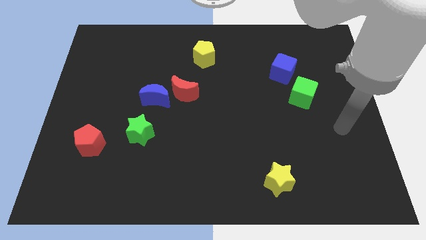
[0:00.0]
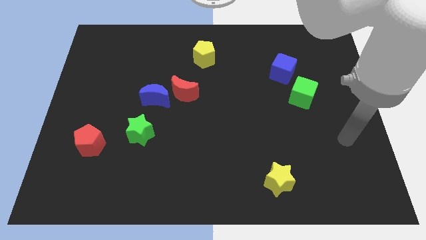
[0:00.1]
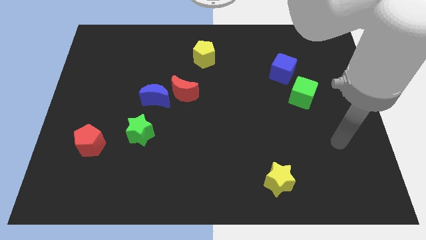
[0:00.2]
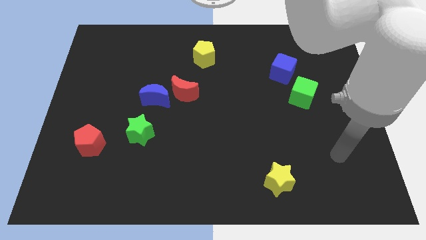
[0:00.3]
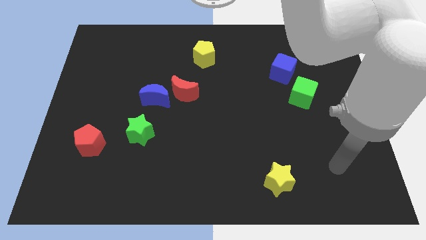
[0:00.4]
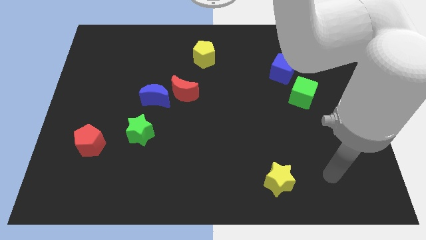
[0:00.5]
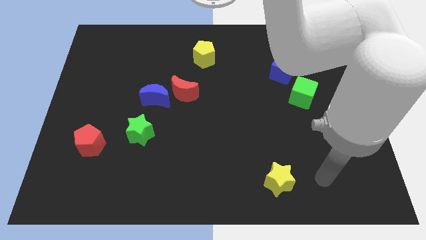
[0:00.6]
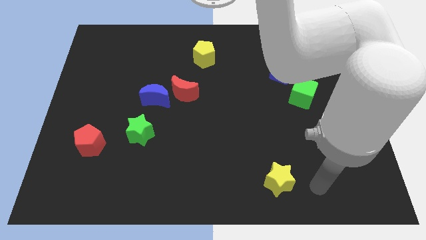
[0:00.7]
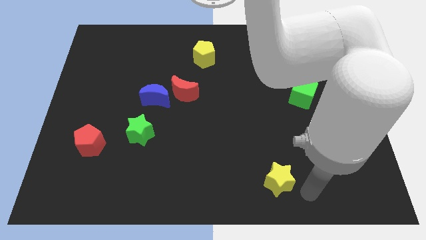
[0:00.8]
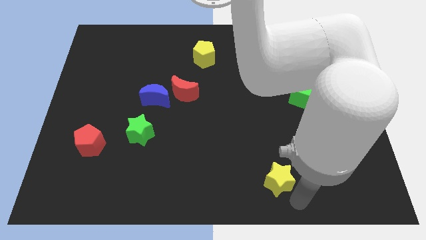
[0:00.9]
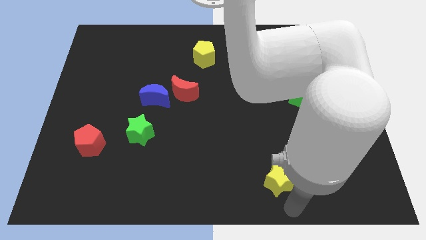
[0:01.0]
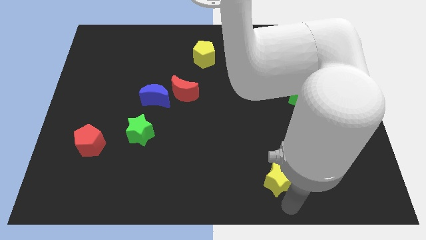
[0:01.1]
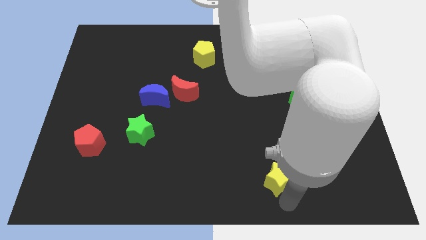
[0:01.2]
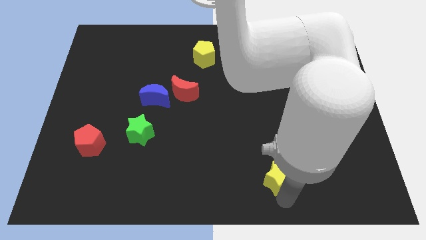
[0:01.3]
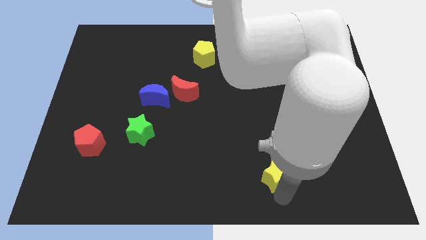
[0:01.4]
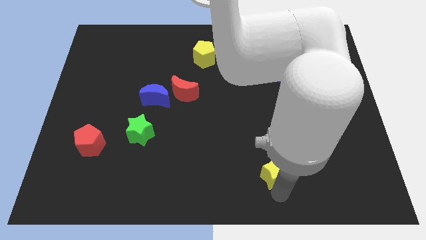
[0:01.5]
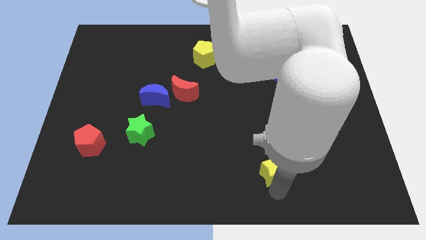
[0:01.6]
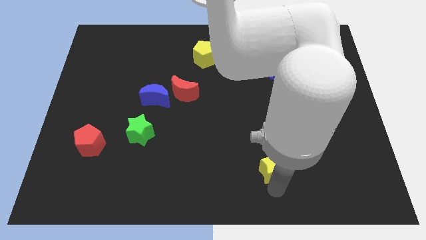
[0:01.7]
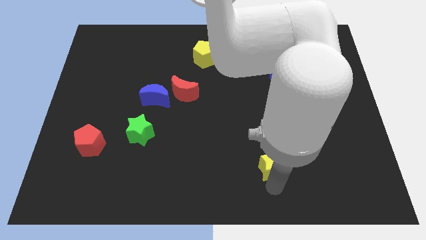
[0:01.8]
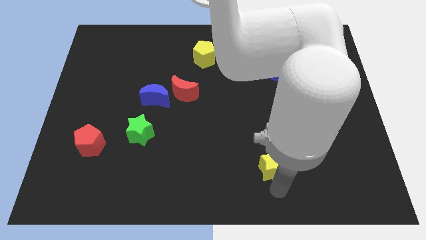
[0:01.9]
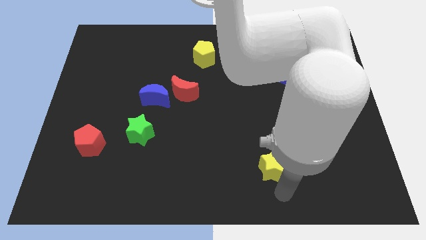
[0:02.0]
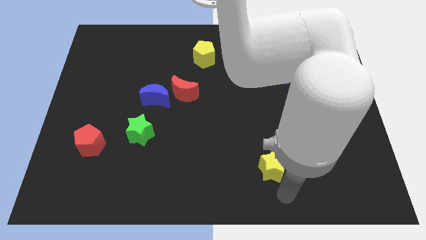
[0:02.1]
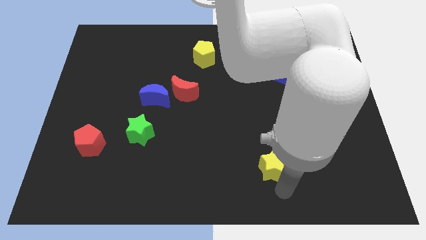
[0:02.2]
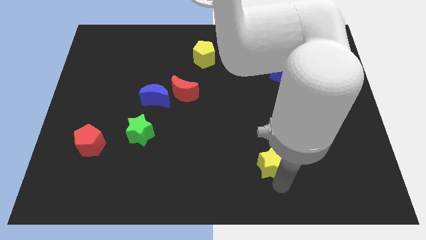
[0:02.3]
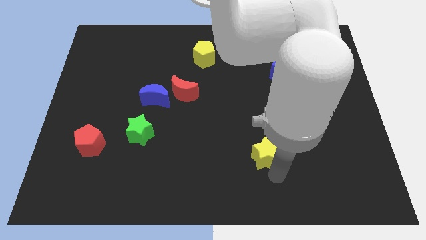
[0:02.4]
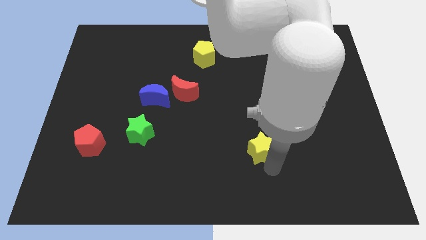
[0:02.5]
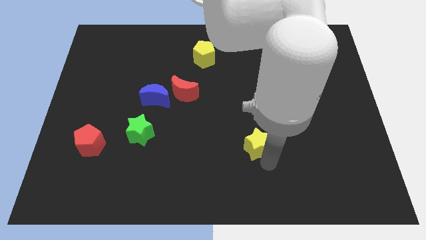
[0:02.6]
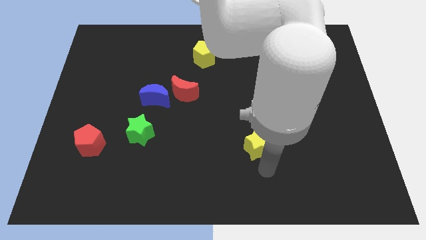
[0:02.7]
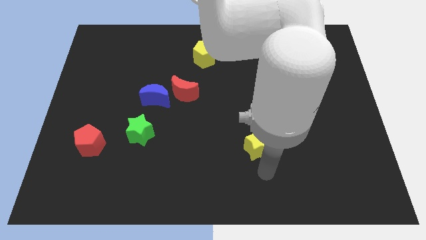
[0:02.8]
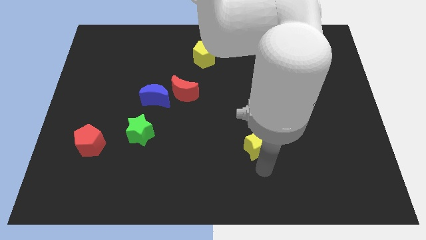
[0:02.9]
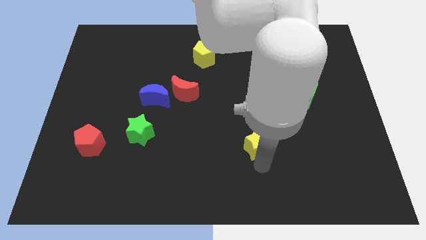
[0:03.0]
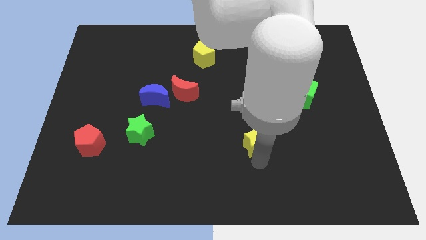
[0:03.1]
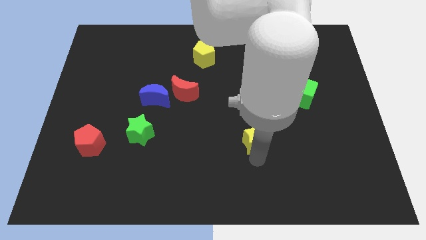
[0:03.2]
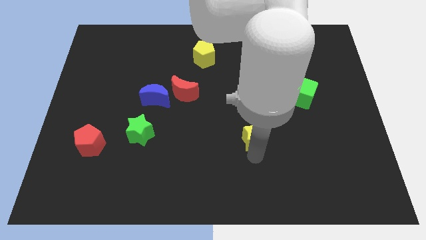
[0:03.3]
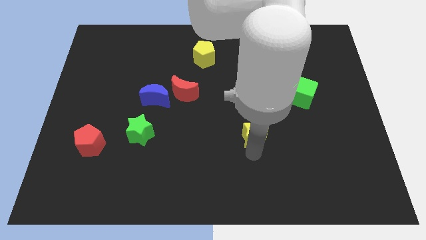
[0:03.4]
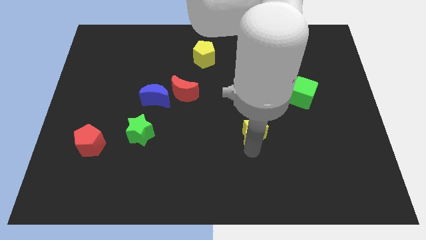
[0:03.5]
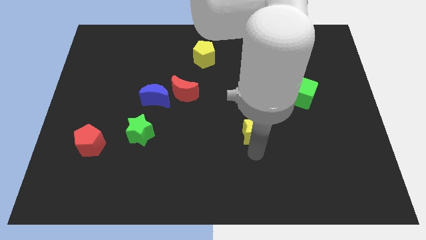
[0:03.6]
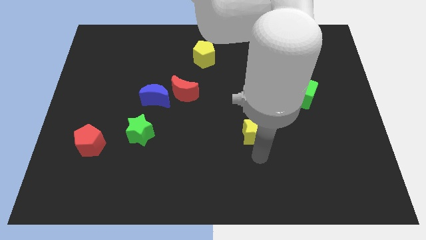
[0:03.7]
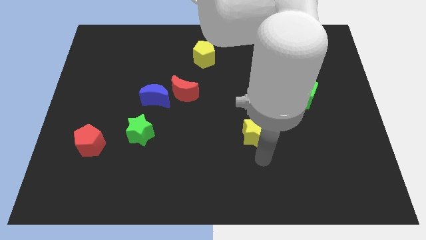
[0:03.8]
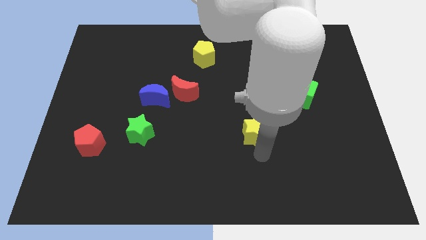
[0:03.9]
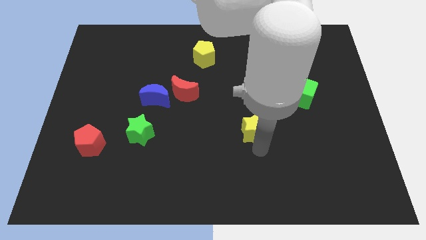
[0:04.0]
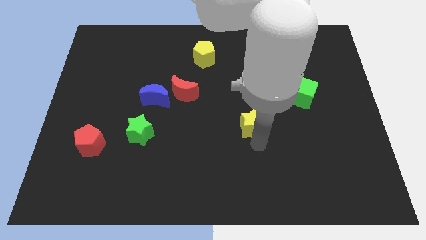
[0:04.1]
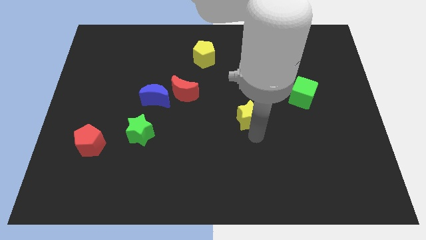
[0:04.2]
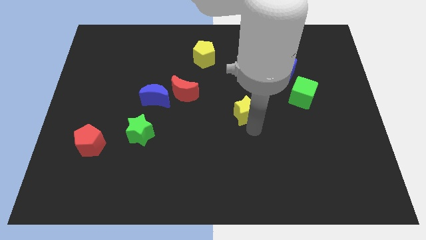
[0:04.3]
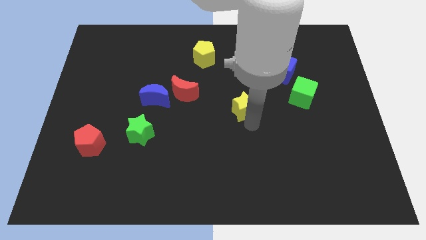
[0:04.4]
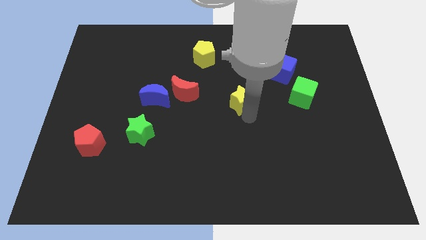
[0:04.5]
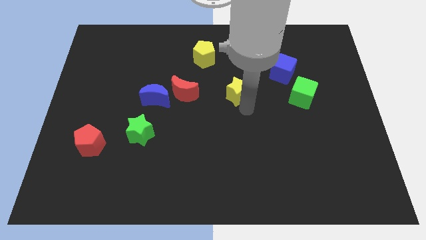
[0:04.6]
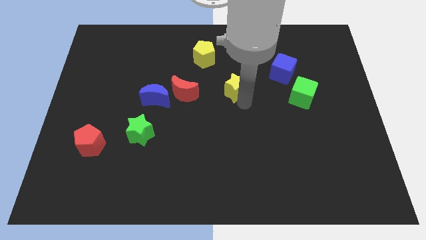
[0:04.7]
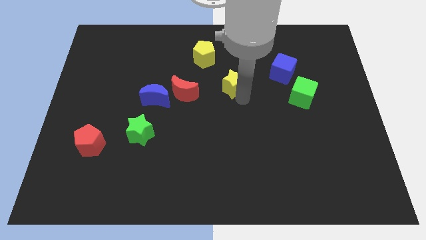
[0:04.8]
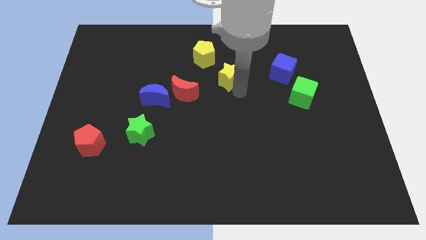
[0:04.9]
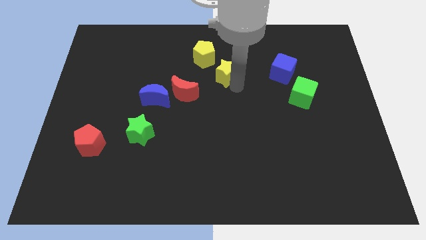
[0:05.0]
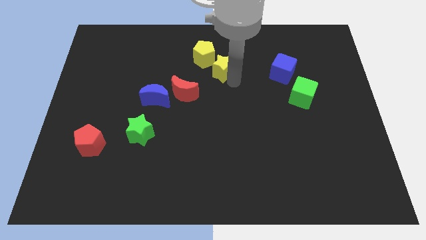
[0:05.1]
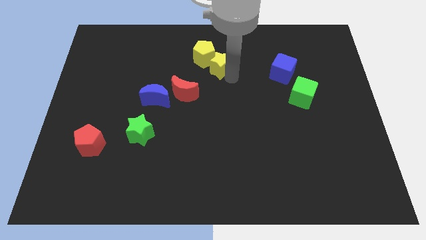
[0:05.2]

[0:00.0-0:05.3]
push the yellow star to the yellow pentagon

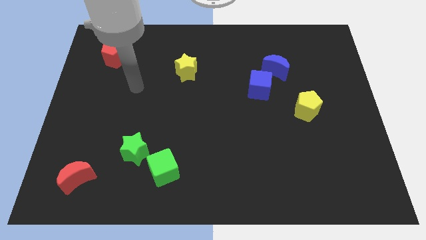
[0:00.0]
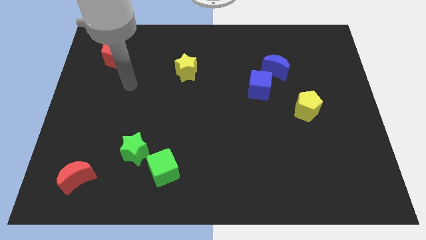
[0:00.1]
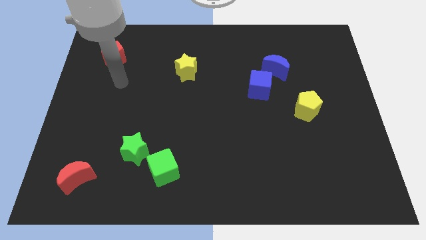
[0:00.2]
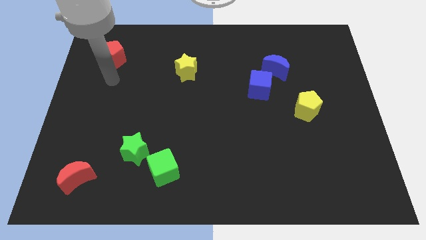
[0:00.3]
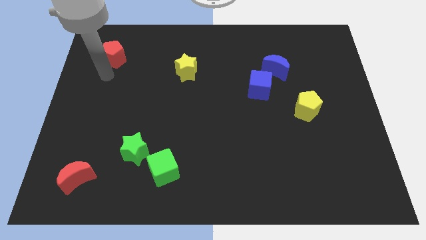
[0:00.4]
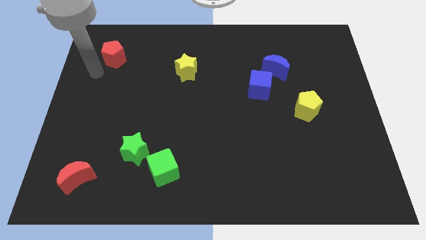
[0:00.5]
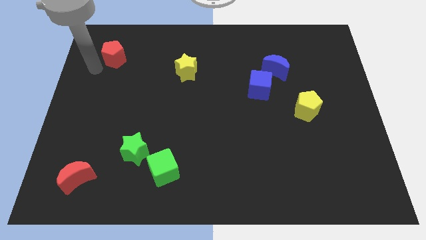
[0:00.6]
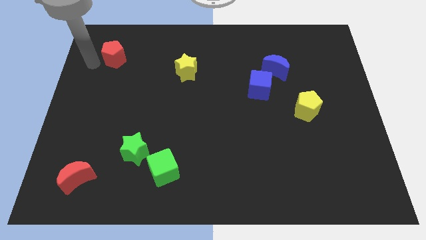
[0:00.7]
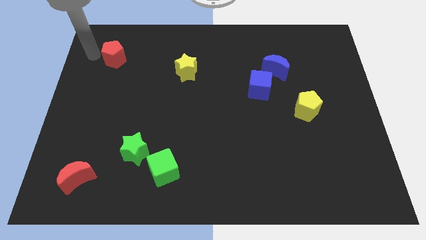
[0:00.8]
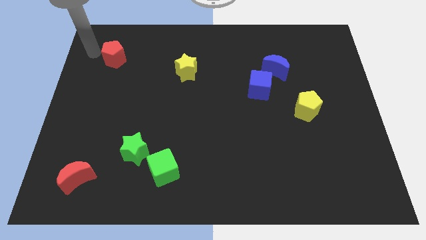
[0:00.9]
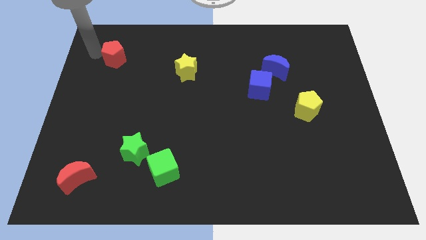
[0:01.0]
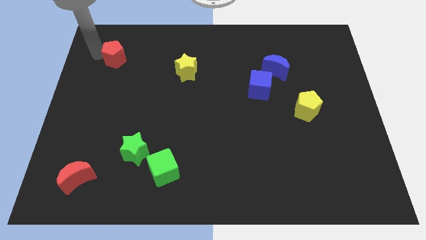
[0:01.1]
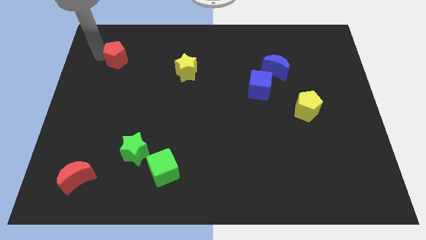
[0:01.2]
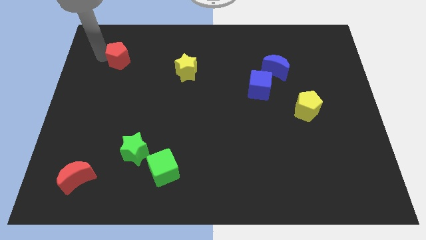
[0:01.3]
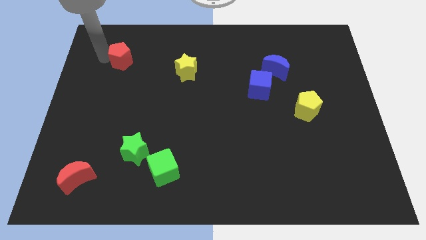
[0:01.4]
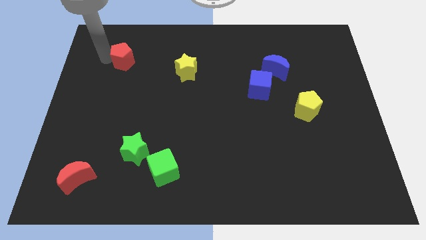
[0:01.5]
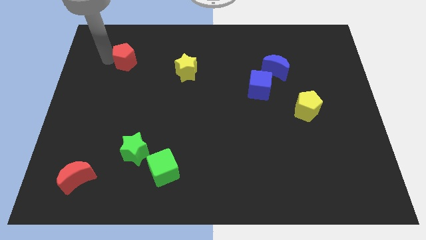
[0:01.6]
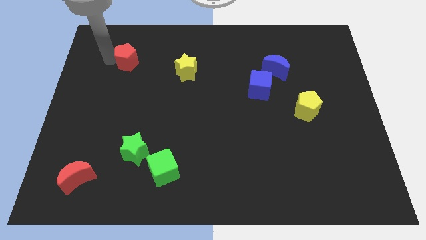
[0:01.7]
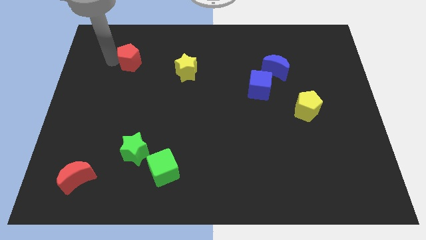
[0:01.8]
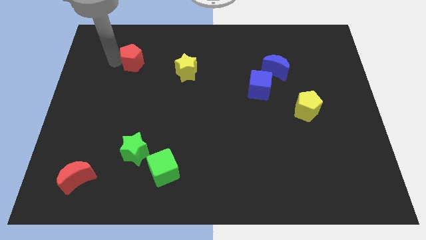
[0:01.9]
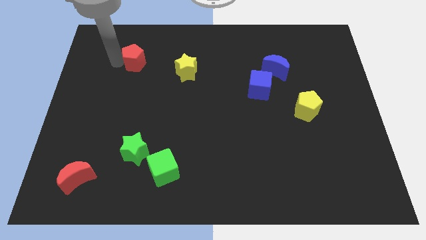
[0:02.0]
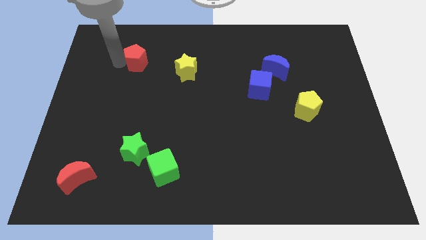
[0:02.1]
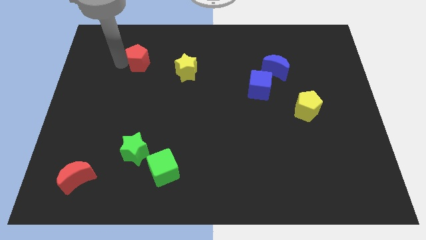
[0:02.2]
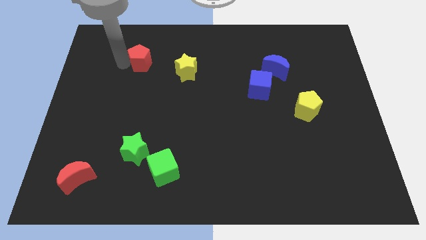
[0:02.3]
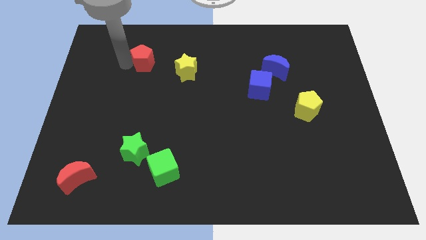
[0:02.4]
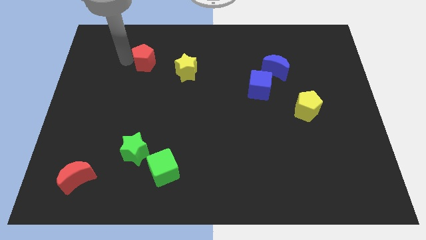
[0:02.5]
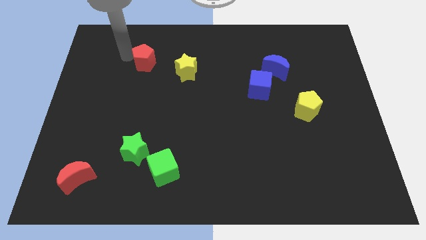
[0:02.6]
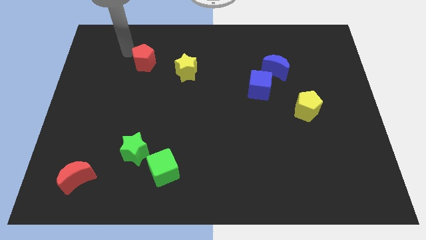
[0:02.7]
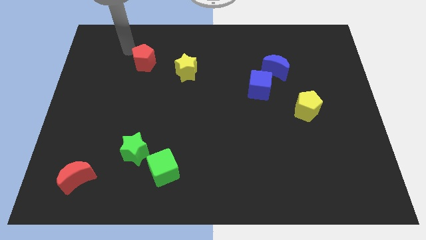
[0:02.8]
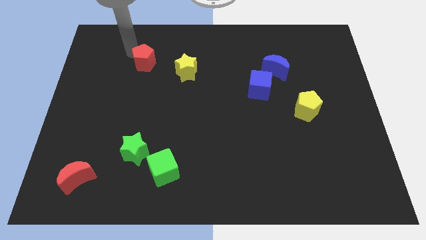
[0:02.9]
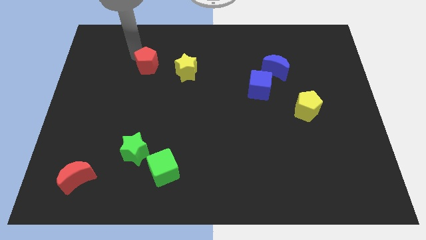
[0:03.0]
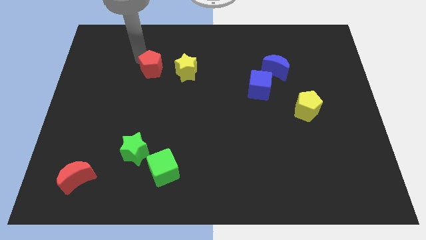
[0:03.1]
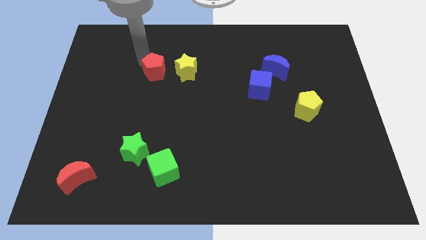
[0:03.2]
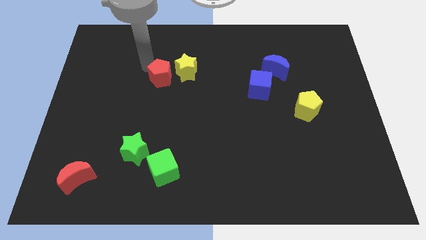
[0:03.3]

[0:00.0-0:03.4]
slide the red pentagon towards the yellow star
